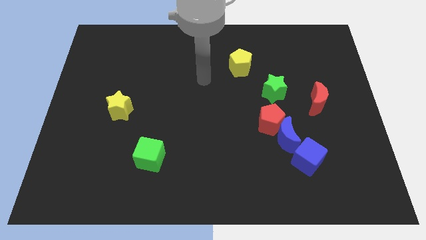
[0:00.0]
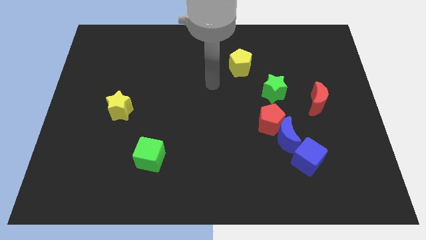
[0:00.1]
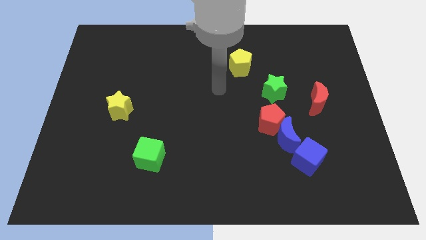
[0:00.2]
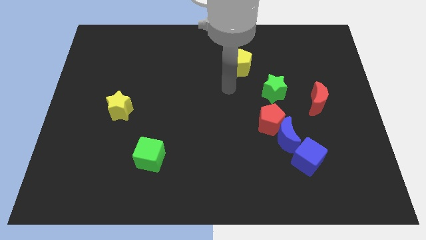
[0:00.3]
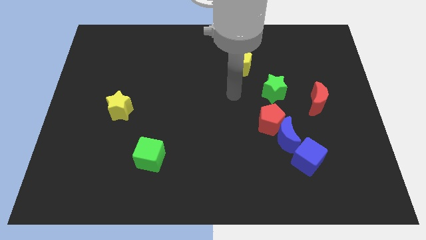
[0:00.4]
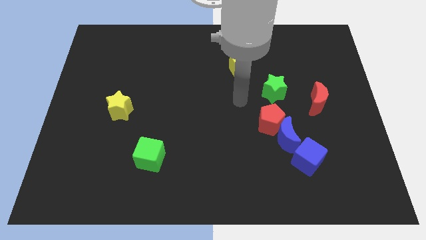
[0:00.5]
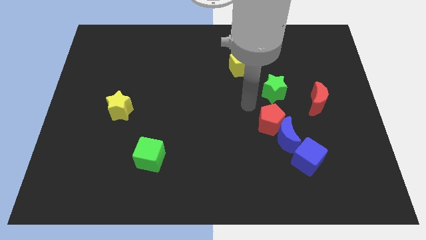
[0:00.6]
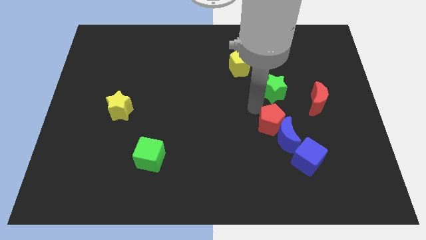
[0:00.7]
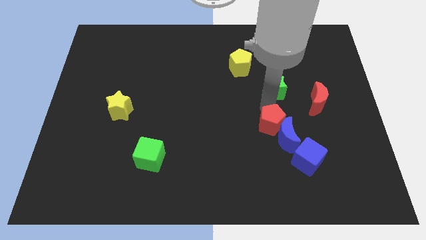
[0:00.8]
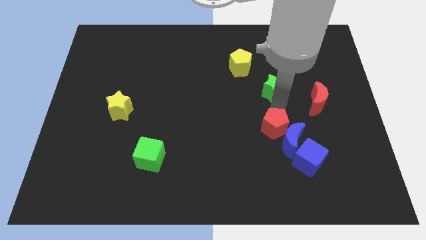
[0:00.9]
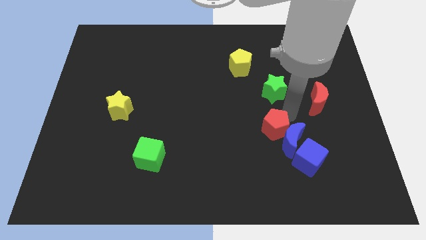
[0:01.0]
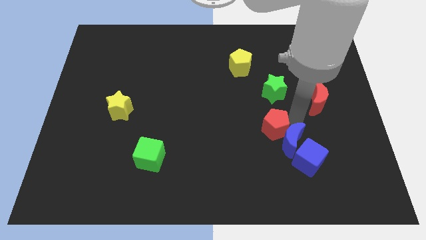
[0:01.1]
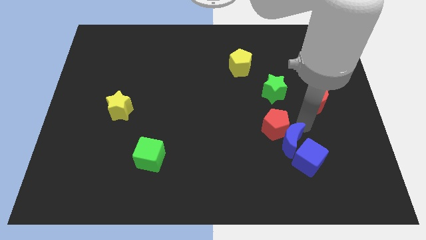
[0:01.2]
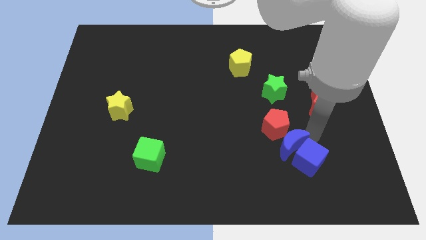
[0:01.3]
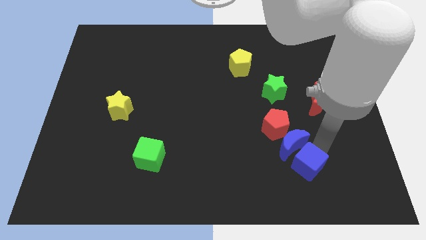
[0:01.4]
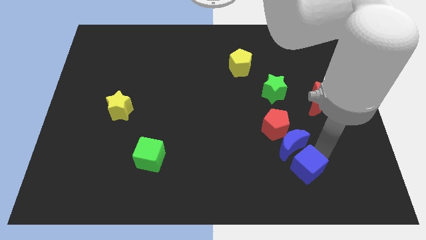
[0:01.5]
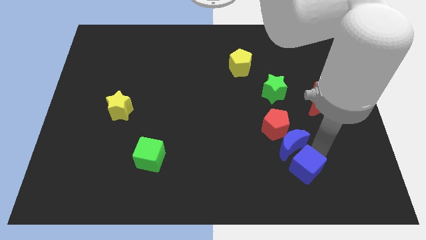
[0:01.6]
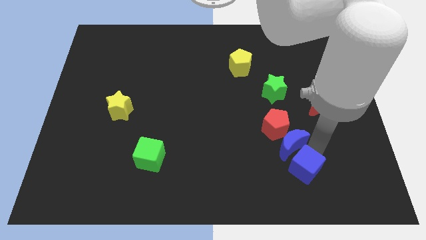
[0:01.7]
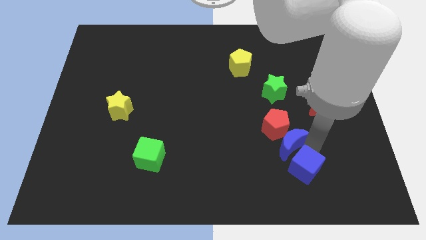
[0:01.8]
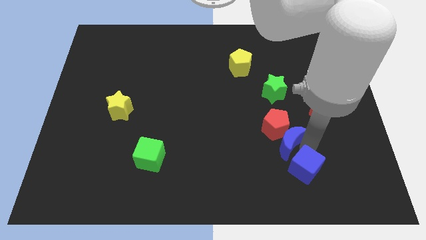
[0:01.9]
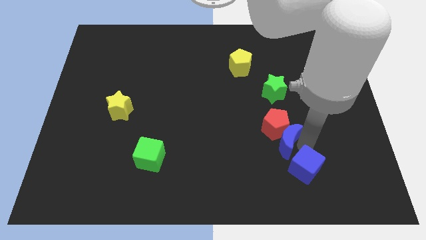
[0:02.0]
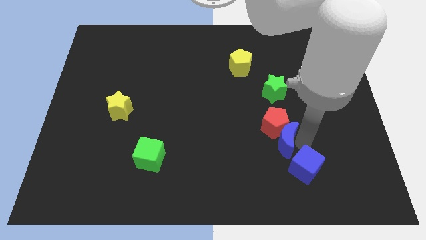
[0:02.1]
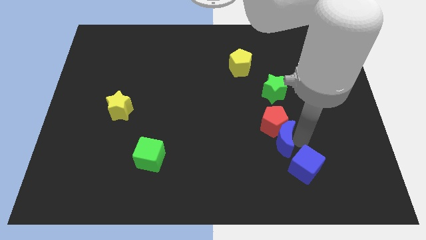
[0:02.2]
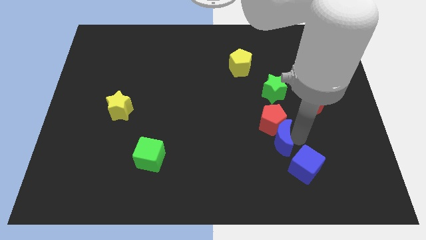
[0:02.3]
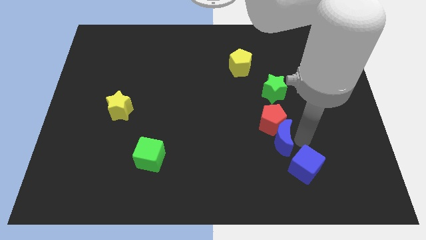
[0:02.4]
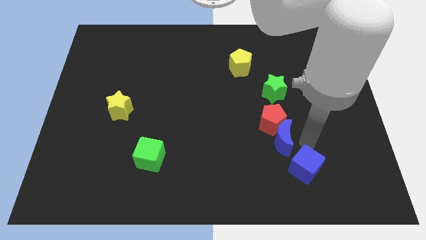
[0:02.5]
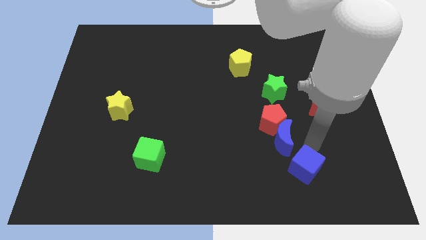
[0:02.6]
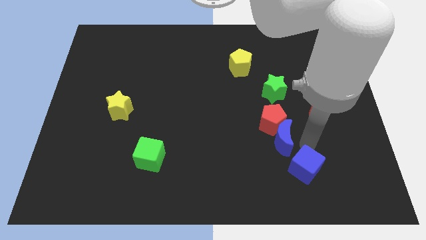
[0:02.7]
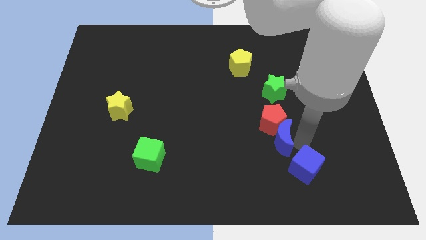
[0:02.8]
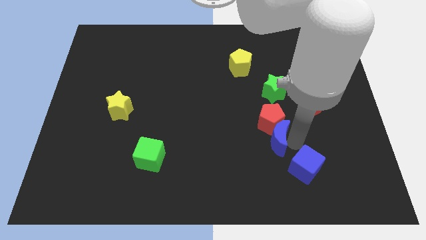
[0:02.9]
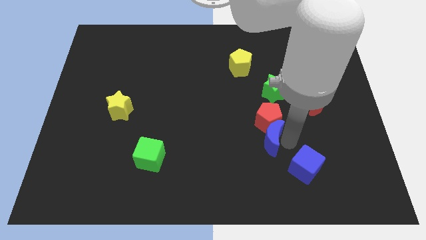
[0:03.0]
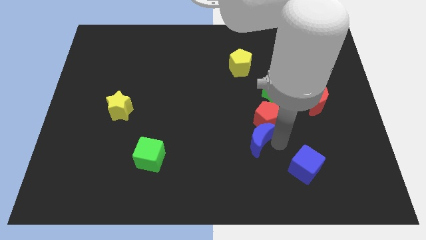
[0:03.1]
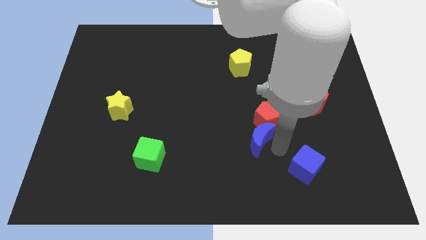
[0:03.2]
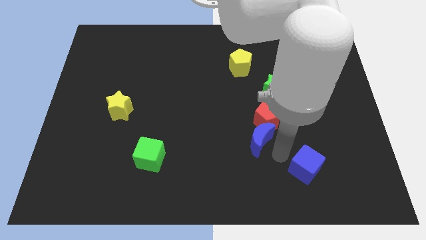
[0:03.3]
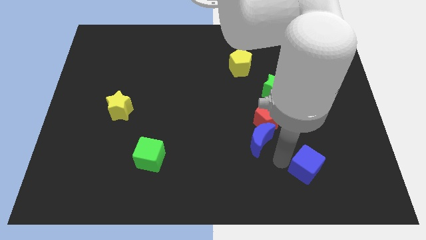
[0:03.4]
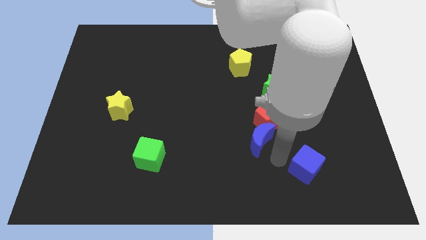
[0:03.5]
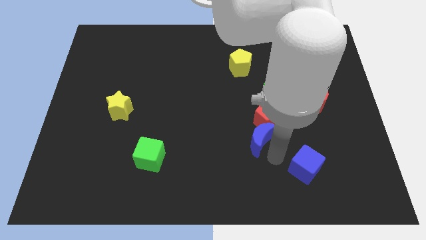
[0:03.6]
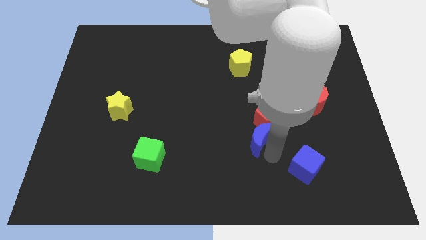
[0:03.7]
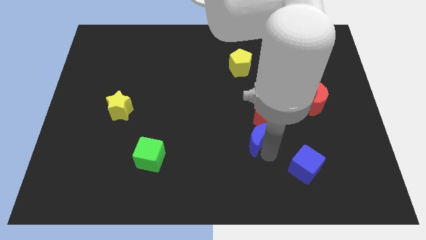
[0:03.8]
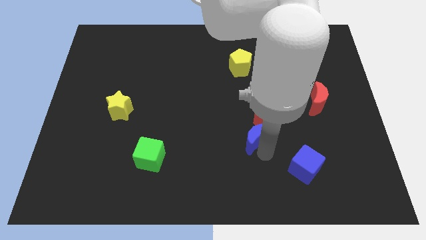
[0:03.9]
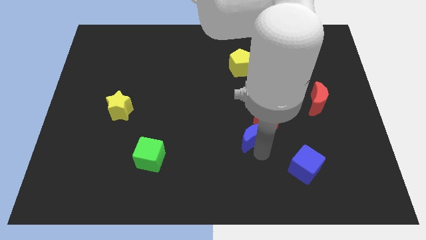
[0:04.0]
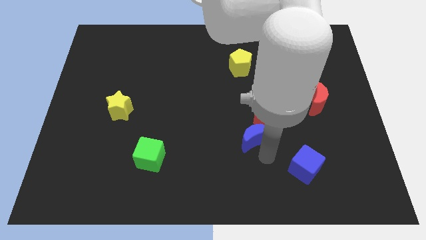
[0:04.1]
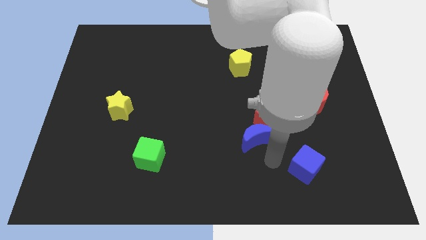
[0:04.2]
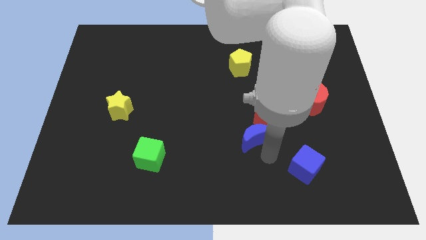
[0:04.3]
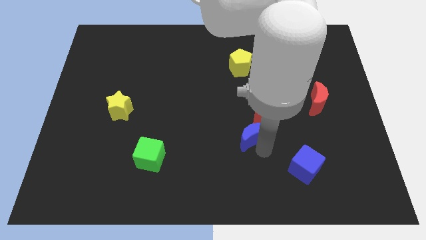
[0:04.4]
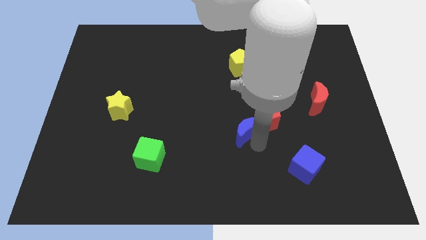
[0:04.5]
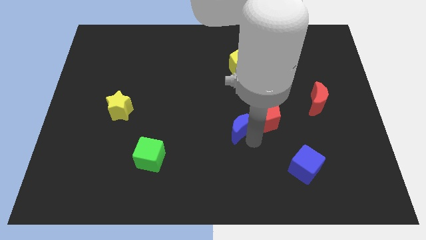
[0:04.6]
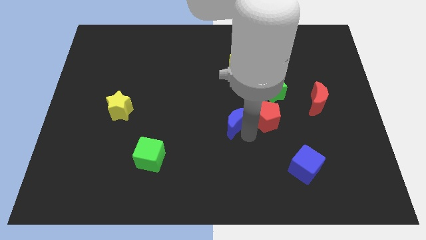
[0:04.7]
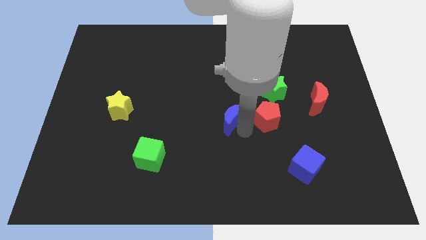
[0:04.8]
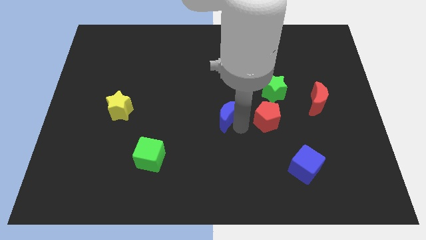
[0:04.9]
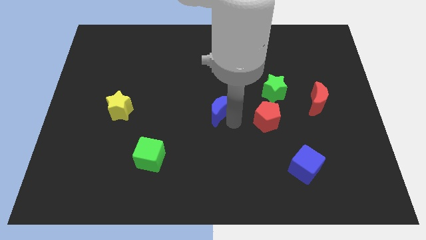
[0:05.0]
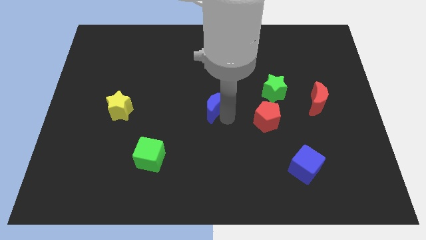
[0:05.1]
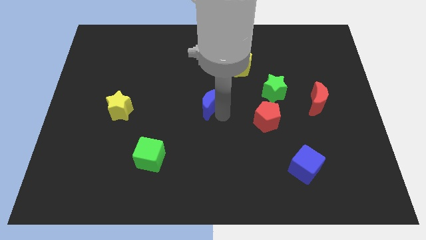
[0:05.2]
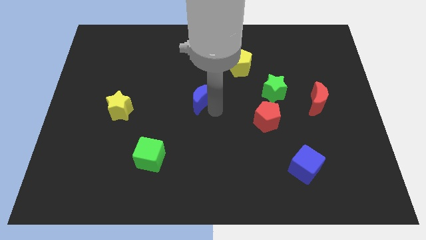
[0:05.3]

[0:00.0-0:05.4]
move the blue moon up and left diagonally

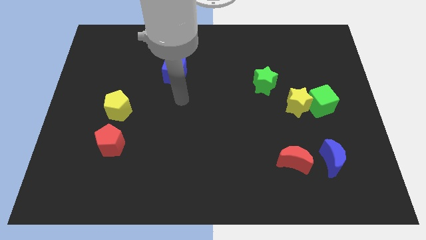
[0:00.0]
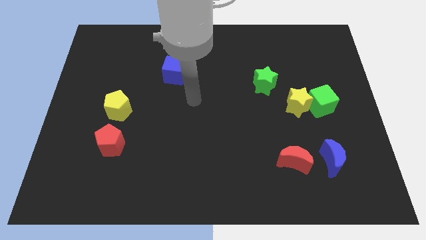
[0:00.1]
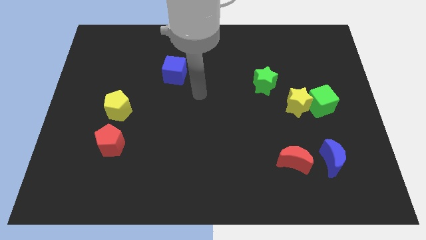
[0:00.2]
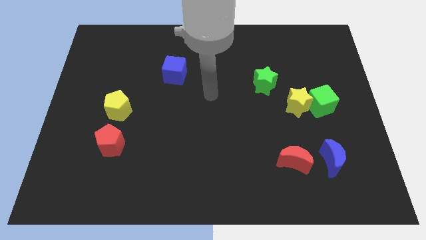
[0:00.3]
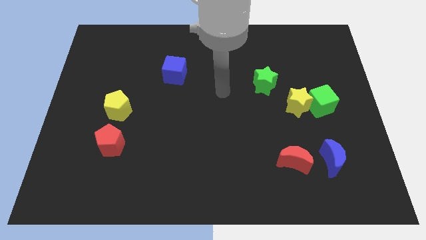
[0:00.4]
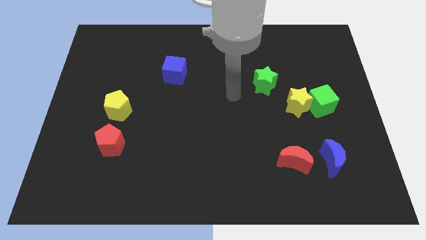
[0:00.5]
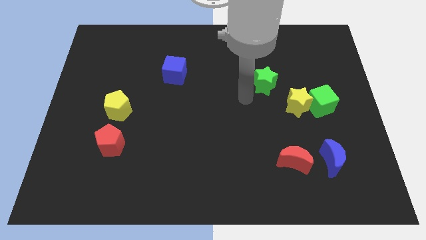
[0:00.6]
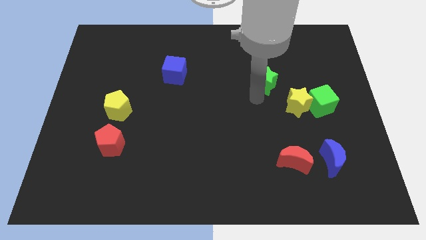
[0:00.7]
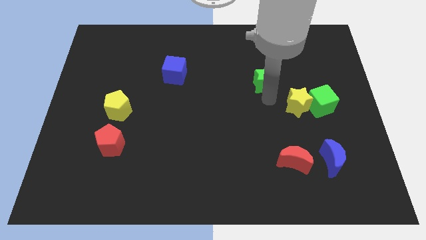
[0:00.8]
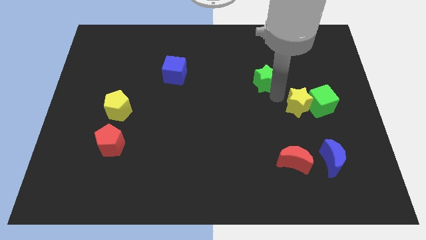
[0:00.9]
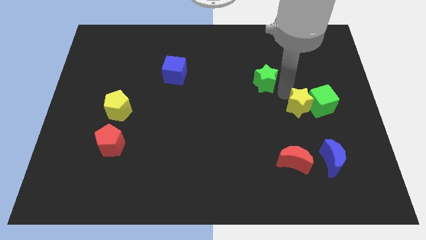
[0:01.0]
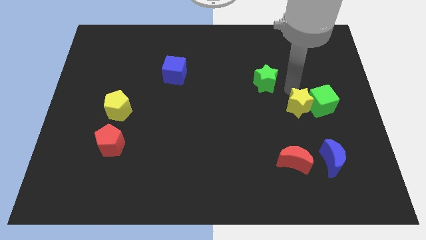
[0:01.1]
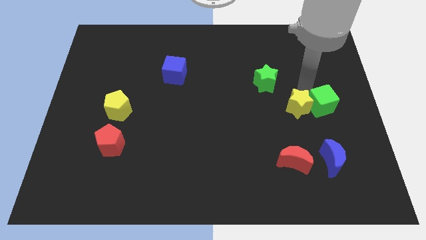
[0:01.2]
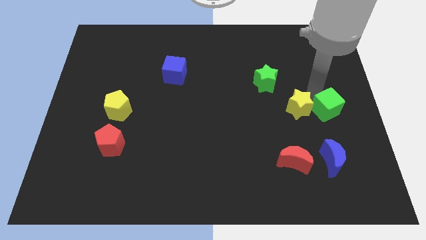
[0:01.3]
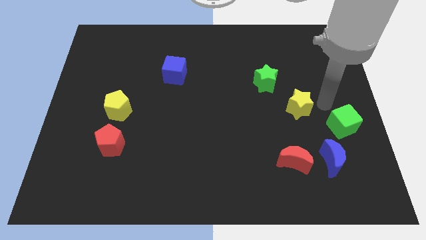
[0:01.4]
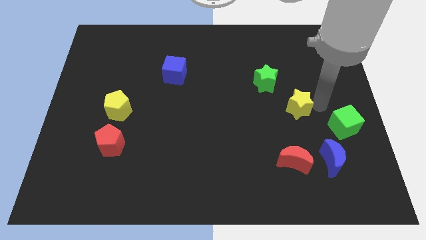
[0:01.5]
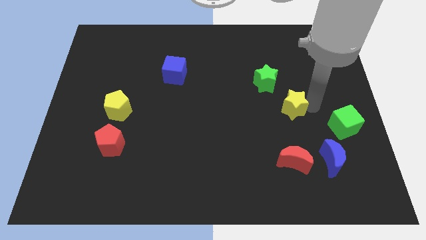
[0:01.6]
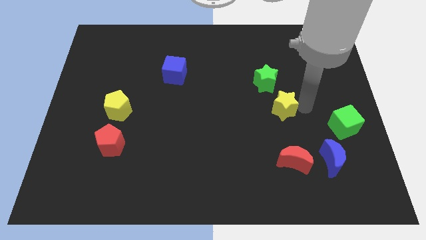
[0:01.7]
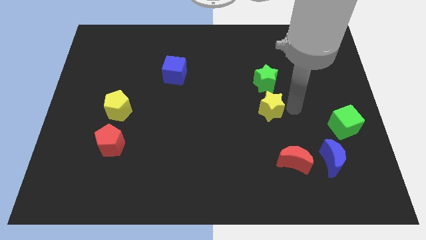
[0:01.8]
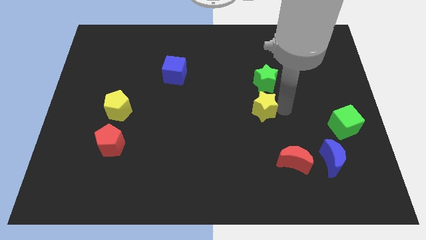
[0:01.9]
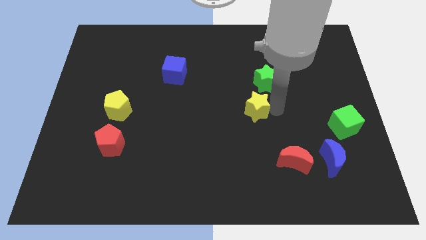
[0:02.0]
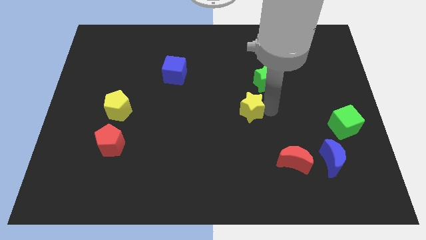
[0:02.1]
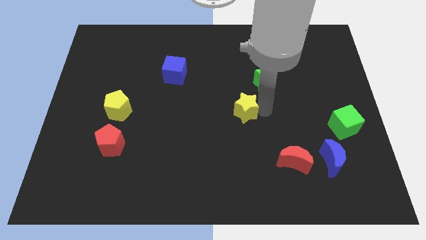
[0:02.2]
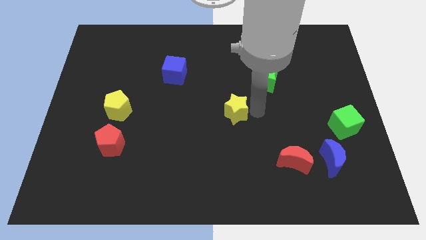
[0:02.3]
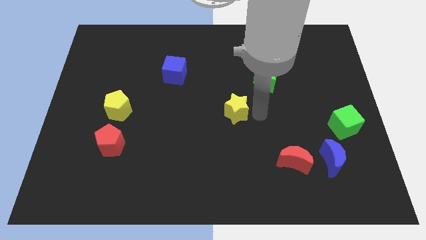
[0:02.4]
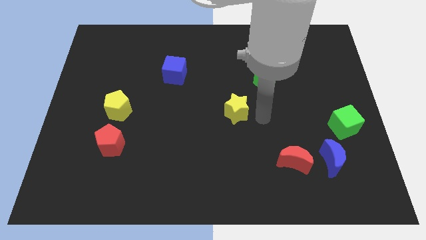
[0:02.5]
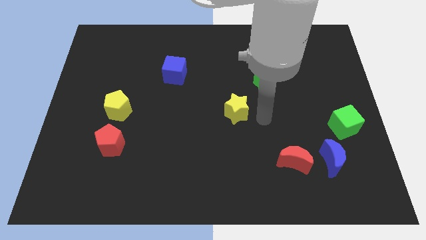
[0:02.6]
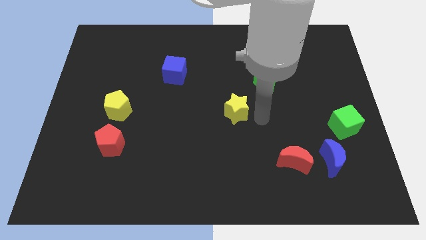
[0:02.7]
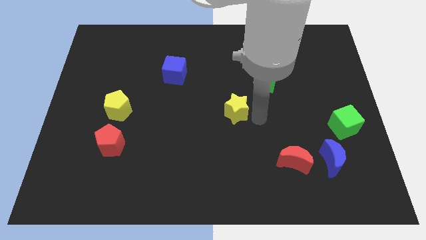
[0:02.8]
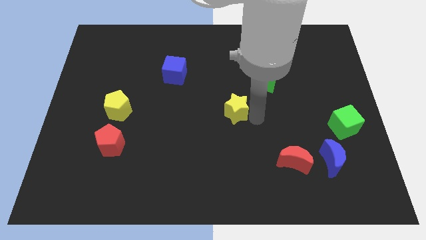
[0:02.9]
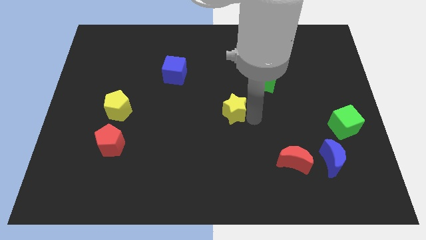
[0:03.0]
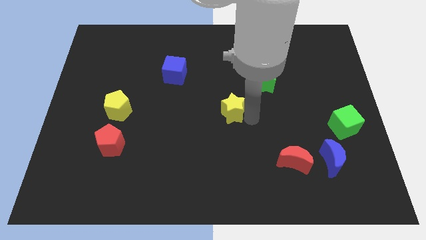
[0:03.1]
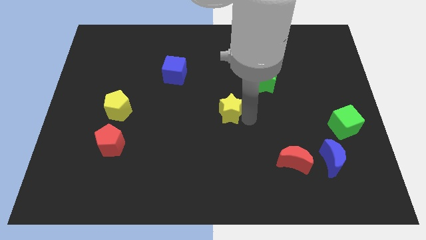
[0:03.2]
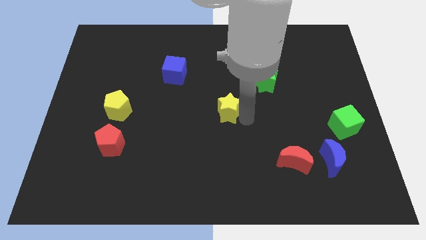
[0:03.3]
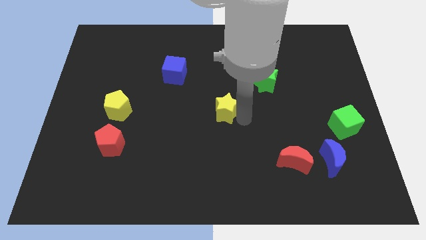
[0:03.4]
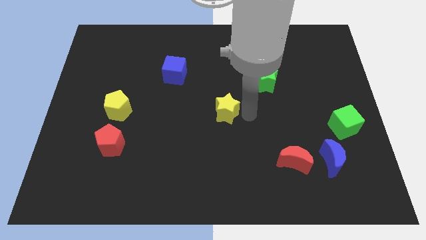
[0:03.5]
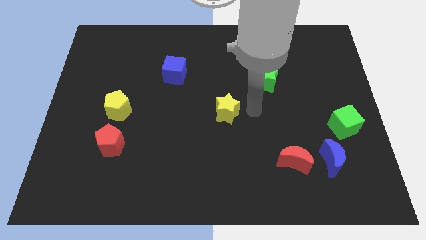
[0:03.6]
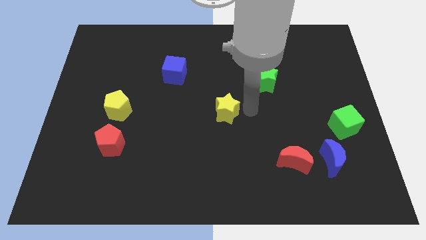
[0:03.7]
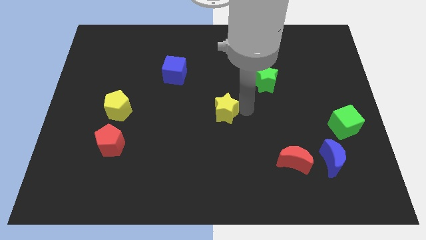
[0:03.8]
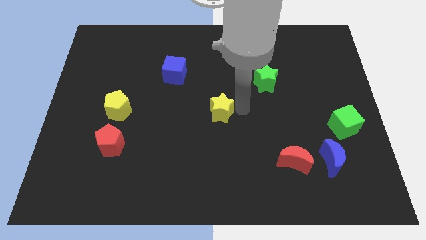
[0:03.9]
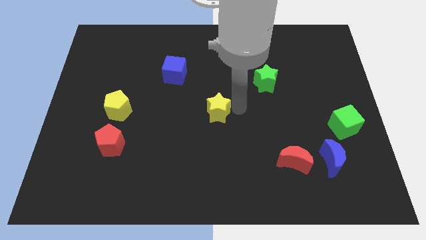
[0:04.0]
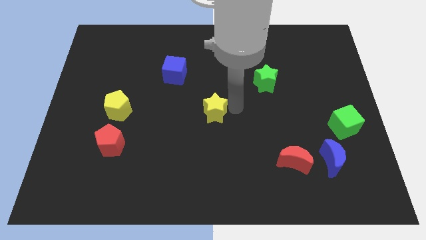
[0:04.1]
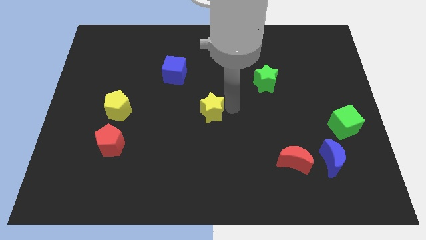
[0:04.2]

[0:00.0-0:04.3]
push the yellow star left
